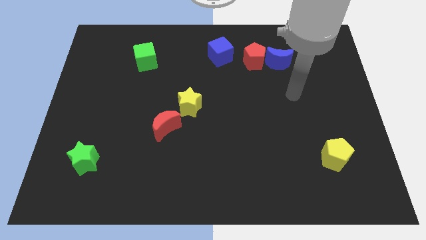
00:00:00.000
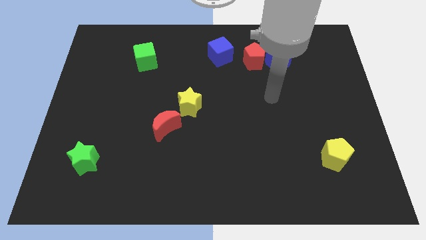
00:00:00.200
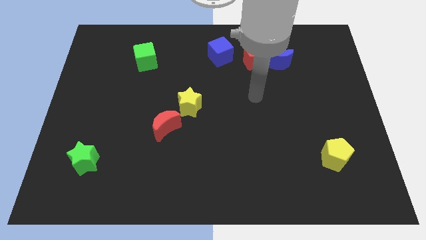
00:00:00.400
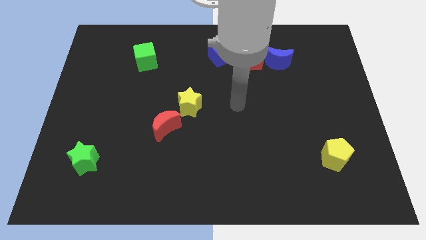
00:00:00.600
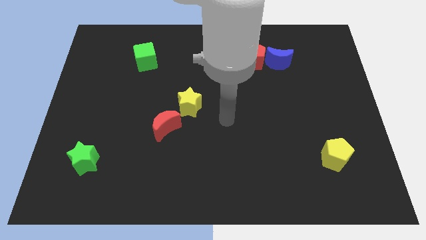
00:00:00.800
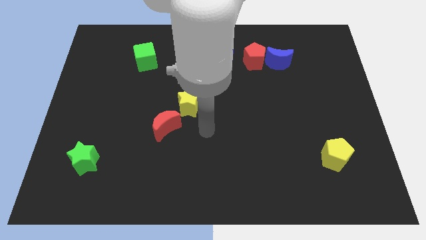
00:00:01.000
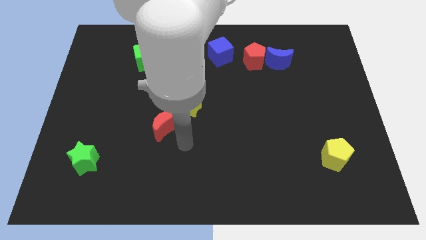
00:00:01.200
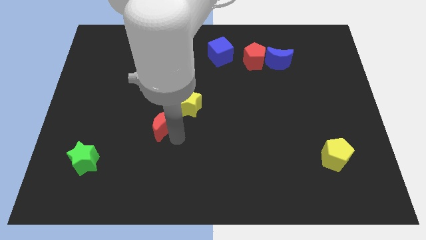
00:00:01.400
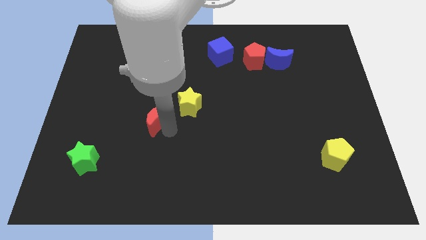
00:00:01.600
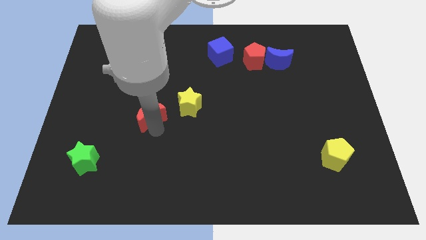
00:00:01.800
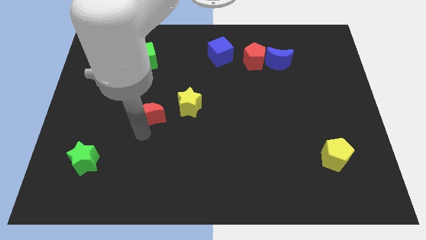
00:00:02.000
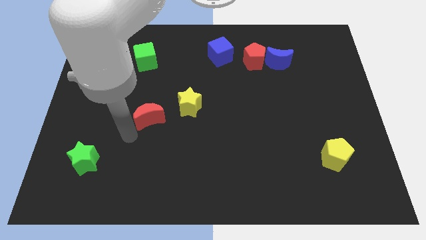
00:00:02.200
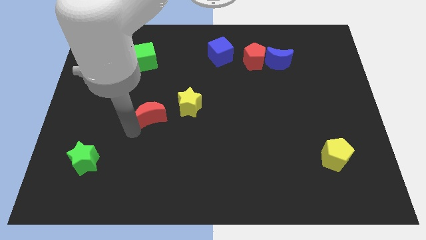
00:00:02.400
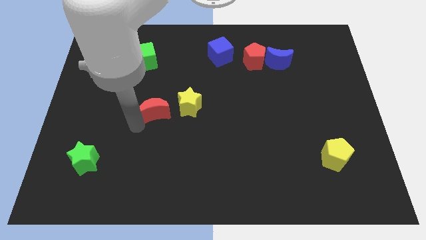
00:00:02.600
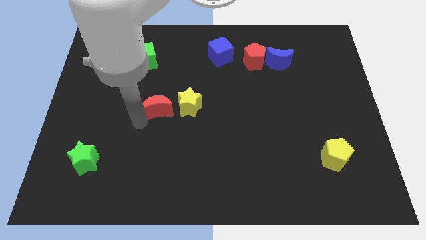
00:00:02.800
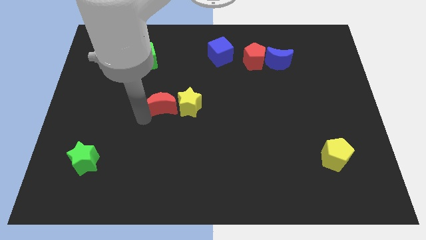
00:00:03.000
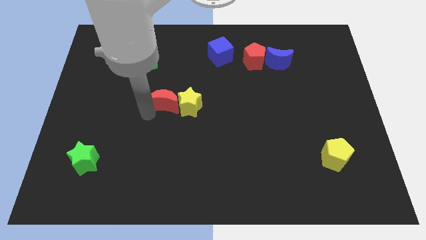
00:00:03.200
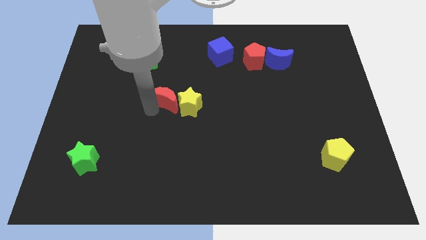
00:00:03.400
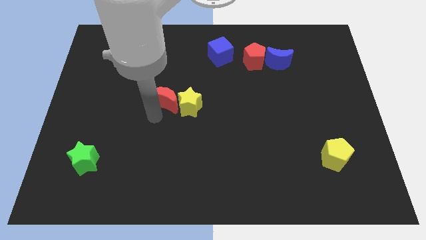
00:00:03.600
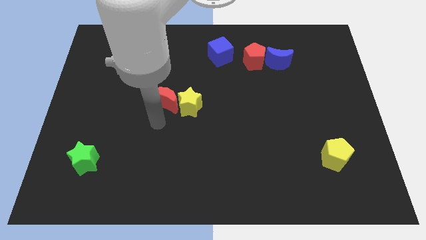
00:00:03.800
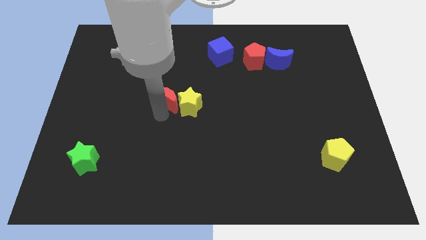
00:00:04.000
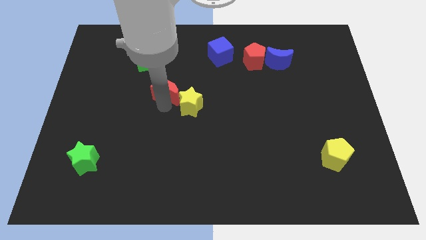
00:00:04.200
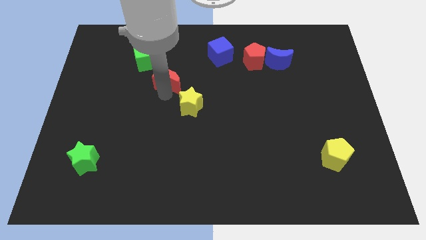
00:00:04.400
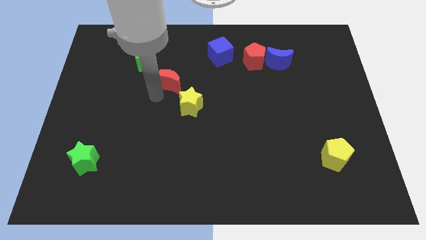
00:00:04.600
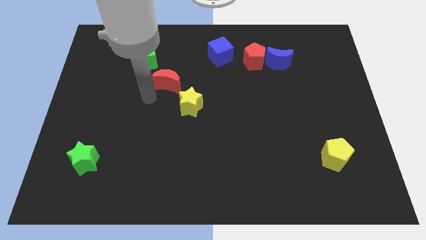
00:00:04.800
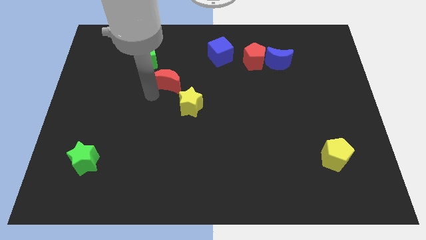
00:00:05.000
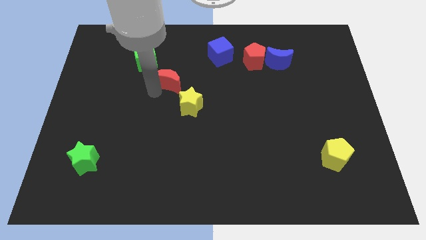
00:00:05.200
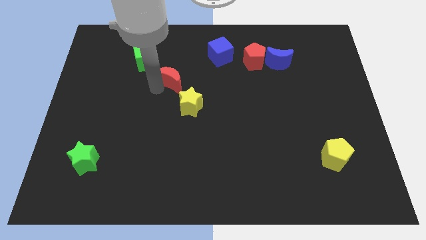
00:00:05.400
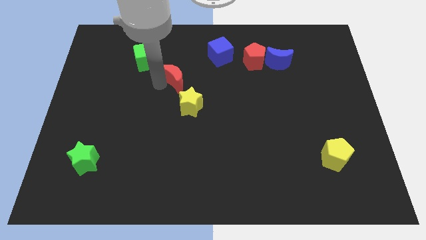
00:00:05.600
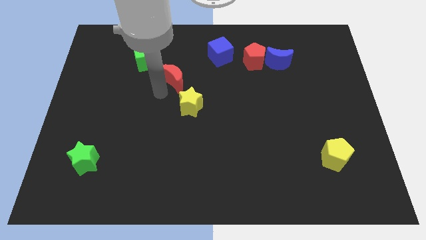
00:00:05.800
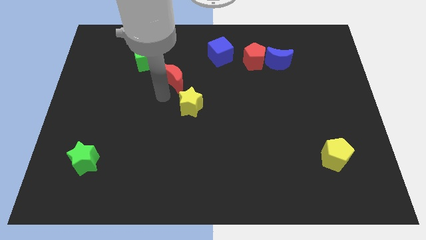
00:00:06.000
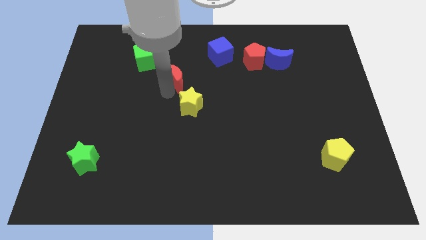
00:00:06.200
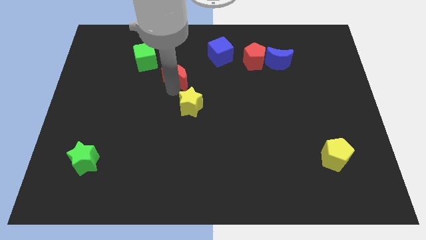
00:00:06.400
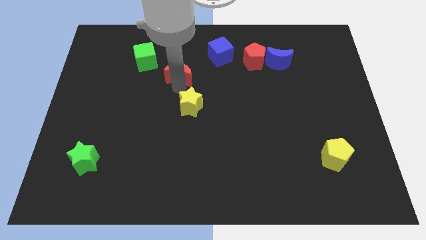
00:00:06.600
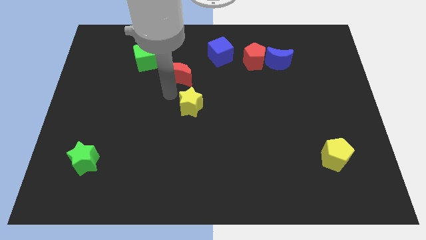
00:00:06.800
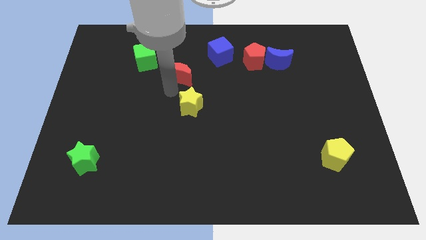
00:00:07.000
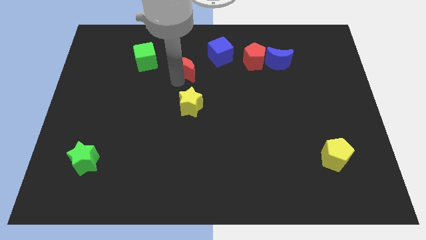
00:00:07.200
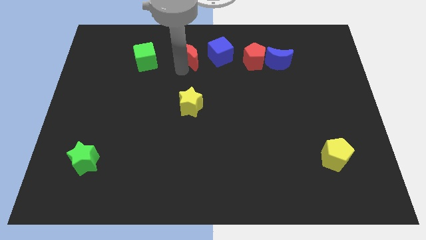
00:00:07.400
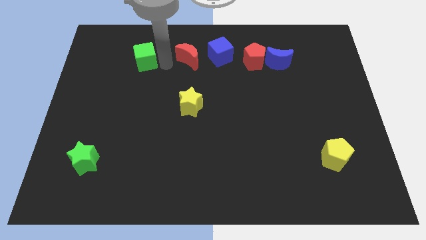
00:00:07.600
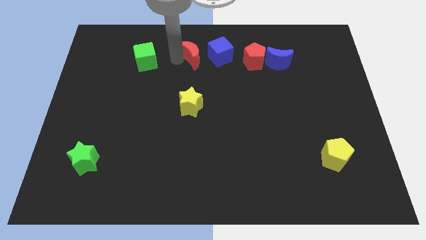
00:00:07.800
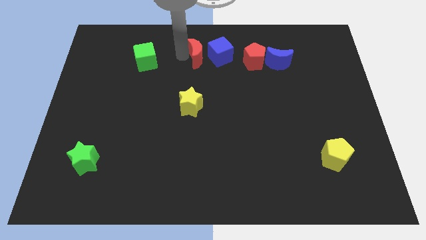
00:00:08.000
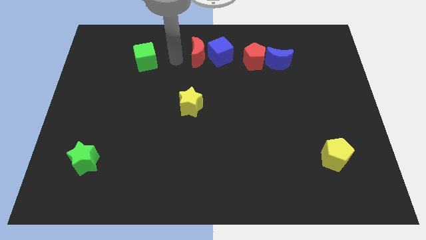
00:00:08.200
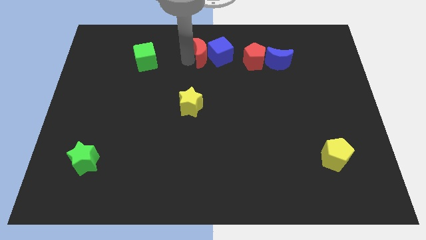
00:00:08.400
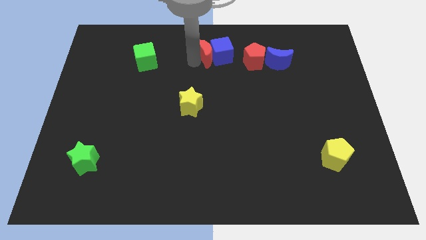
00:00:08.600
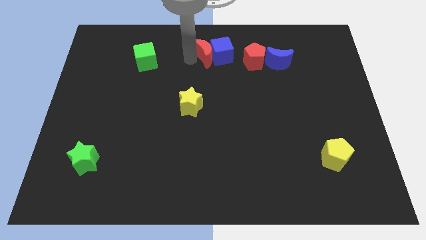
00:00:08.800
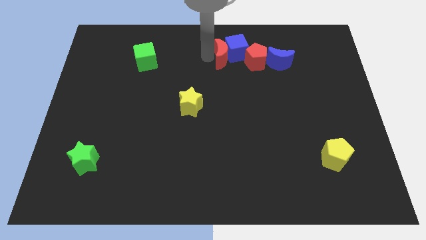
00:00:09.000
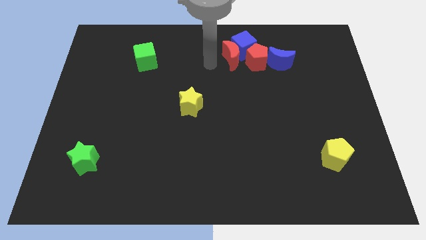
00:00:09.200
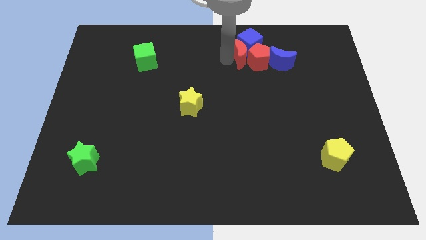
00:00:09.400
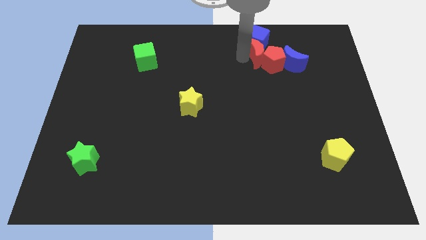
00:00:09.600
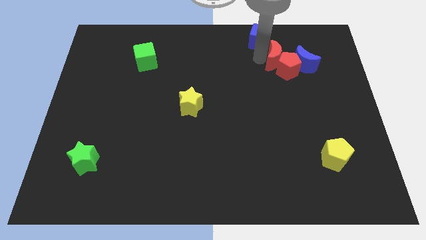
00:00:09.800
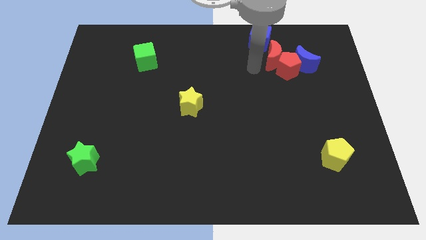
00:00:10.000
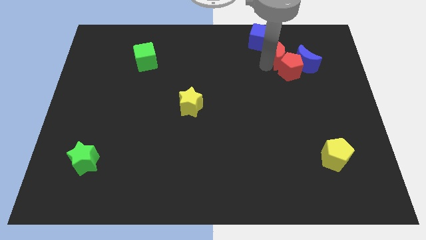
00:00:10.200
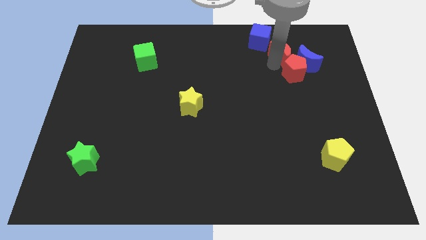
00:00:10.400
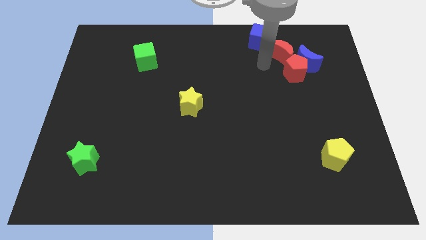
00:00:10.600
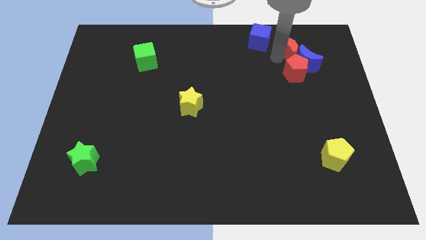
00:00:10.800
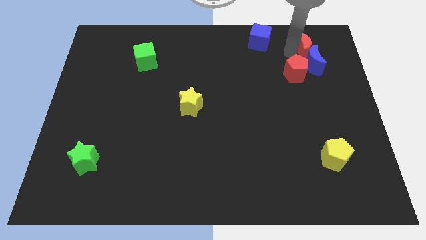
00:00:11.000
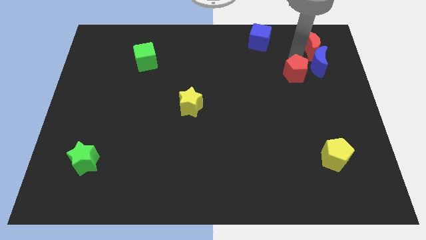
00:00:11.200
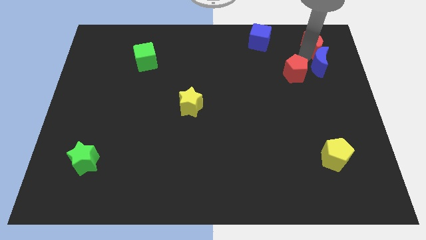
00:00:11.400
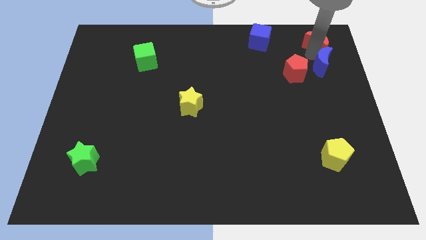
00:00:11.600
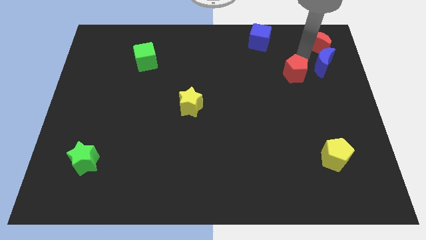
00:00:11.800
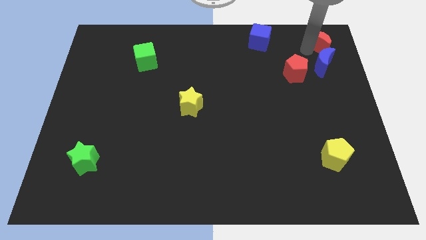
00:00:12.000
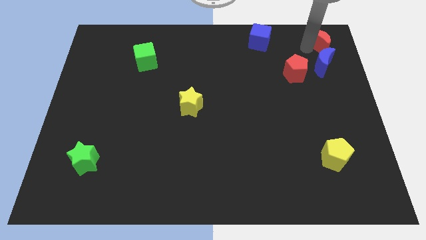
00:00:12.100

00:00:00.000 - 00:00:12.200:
put the red moon to the top right of the board

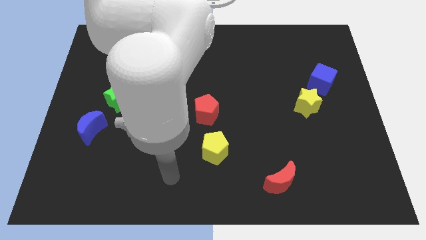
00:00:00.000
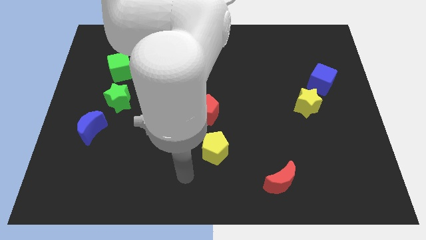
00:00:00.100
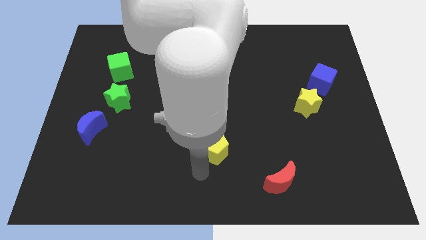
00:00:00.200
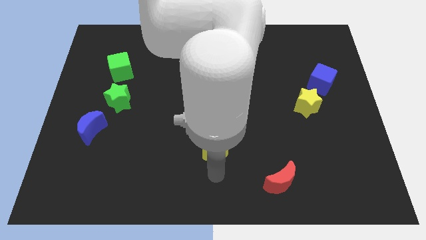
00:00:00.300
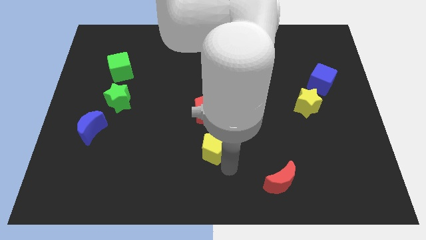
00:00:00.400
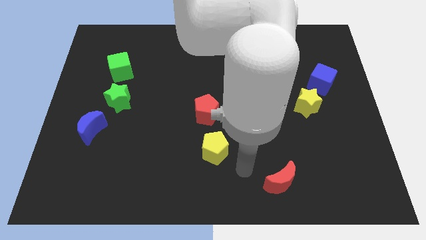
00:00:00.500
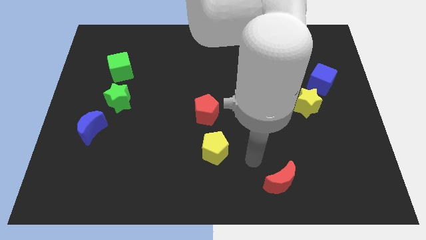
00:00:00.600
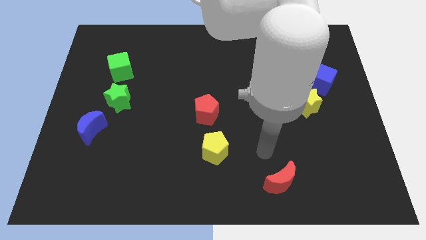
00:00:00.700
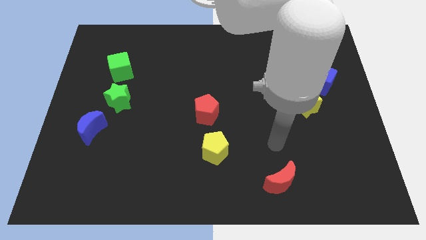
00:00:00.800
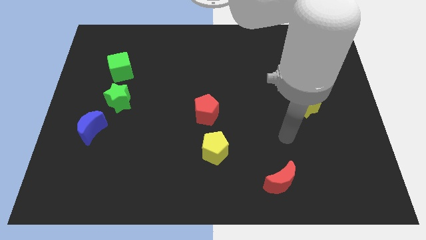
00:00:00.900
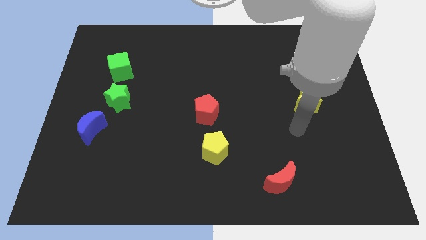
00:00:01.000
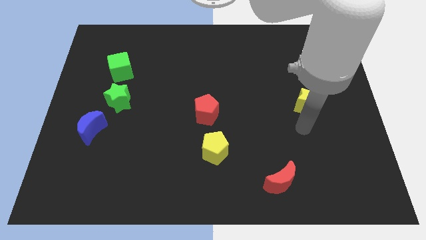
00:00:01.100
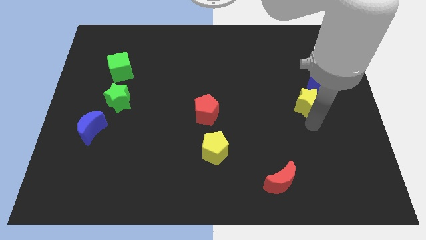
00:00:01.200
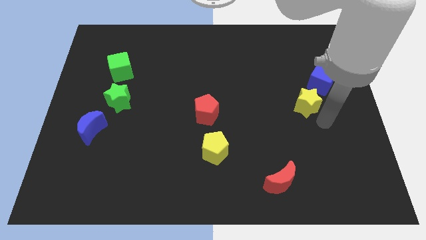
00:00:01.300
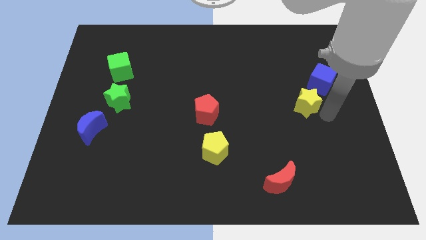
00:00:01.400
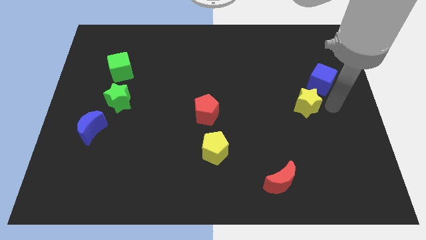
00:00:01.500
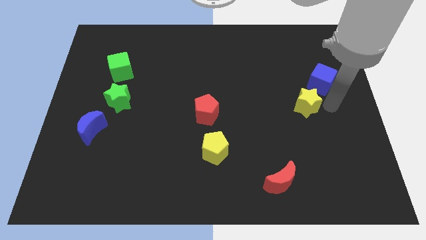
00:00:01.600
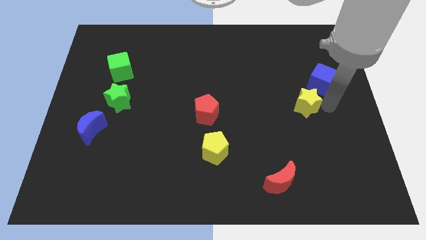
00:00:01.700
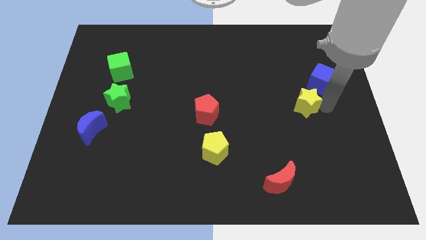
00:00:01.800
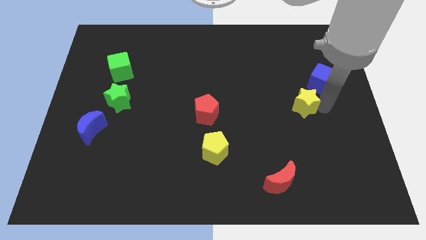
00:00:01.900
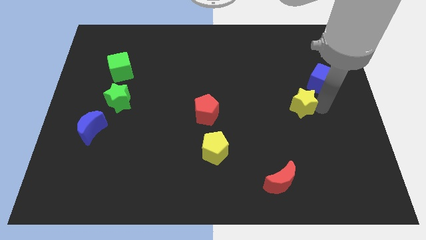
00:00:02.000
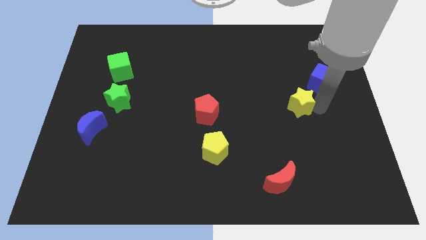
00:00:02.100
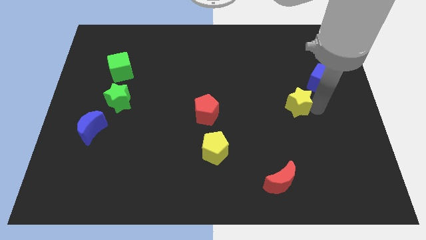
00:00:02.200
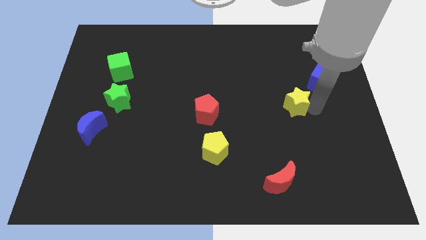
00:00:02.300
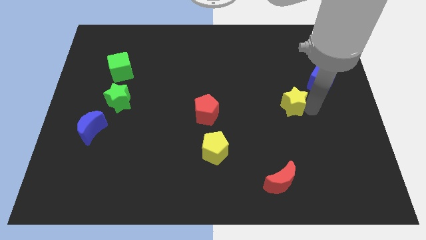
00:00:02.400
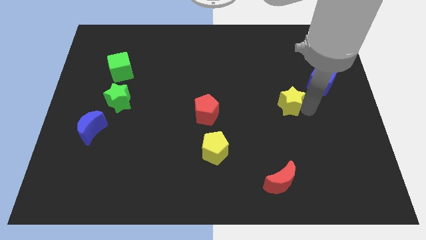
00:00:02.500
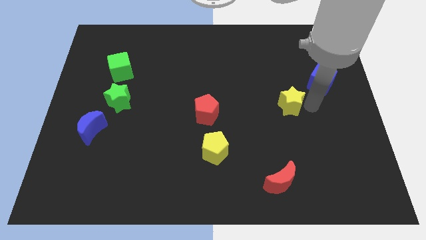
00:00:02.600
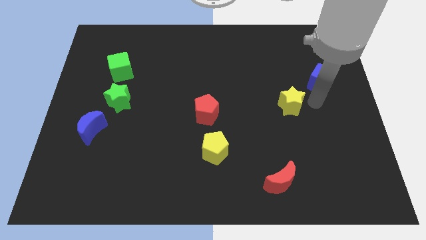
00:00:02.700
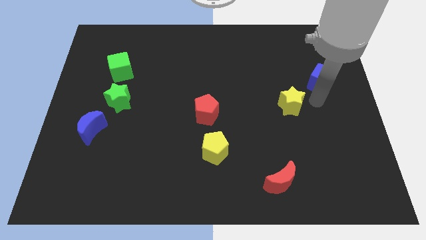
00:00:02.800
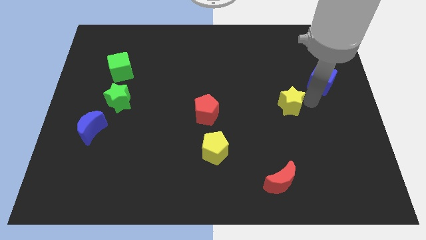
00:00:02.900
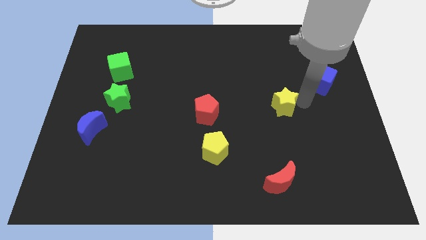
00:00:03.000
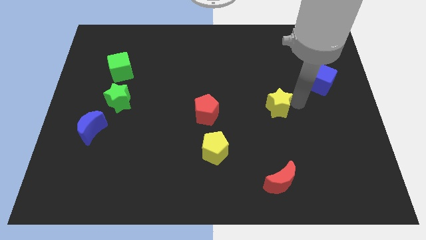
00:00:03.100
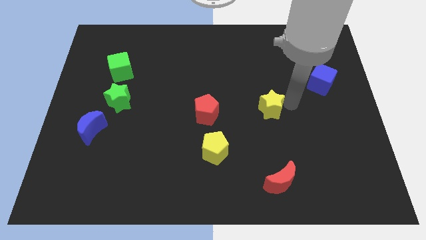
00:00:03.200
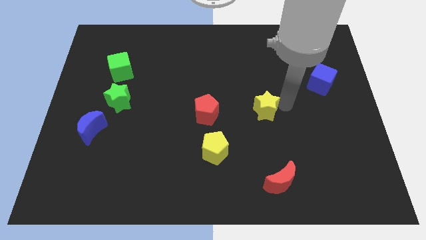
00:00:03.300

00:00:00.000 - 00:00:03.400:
slide the yellow star to the center
